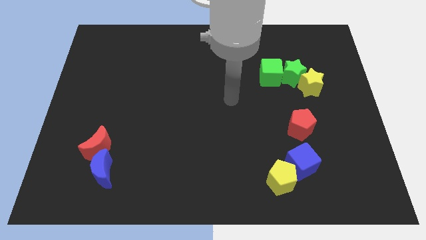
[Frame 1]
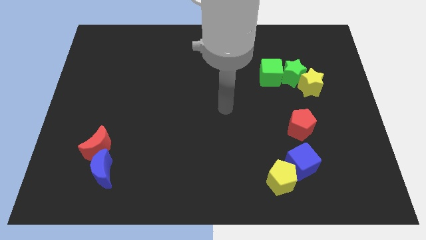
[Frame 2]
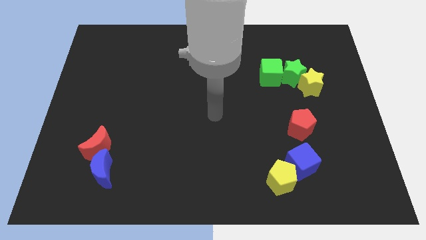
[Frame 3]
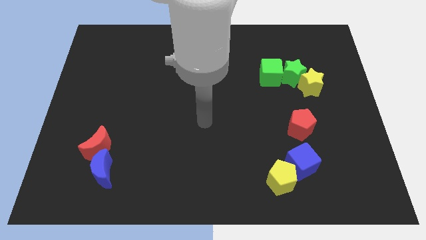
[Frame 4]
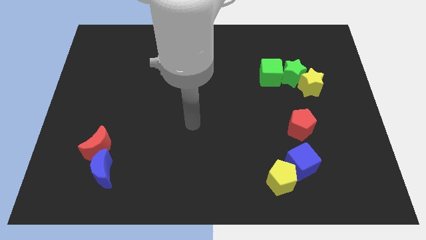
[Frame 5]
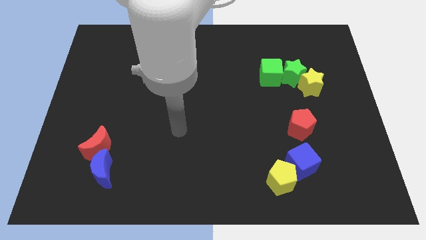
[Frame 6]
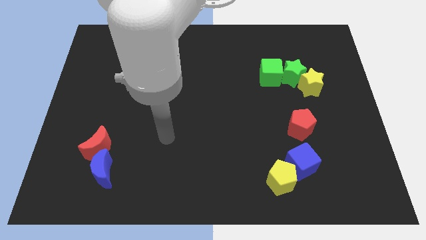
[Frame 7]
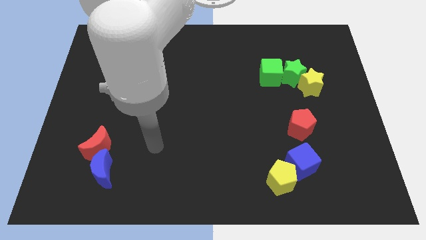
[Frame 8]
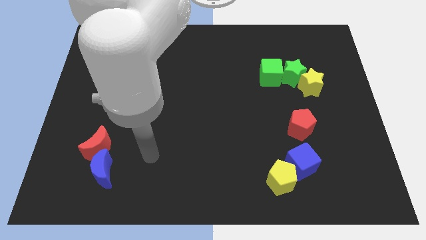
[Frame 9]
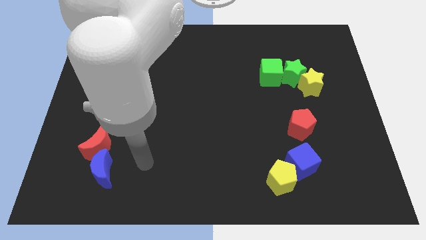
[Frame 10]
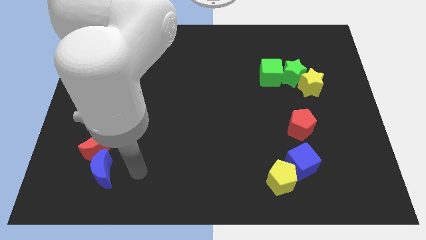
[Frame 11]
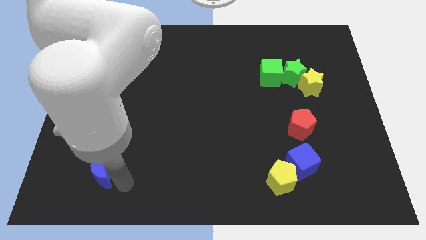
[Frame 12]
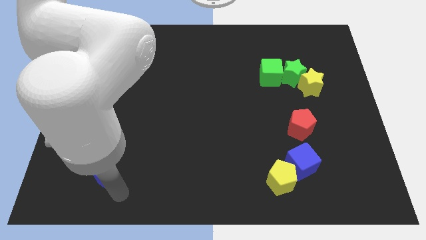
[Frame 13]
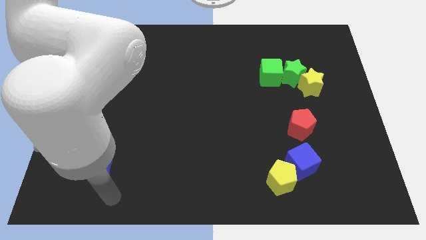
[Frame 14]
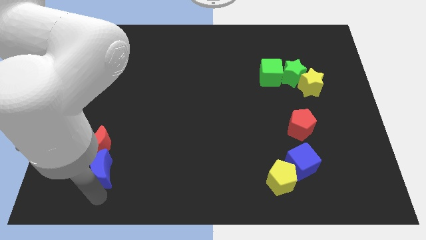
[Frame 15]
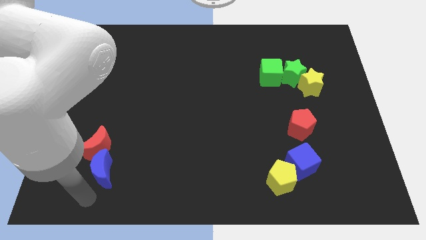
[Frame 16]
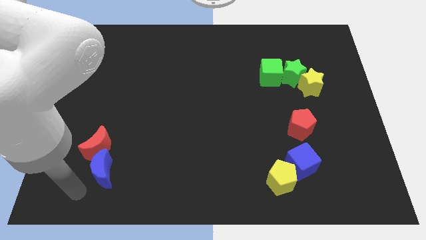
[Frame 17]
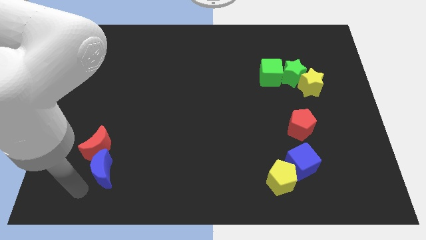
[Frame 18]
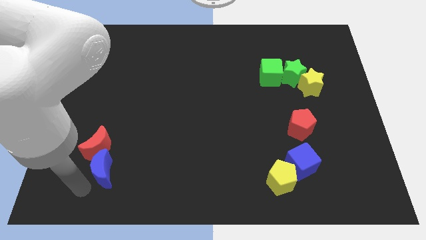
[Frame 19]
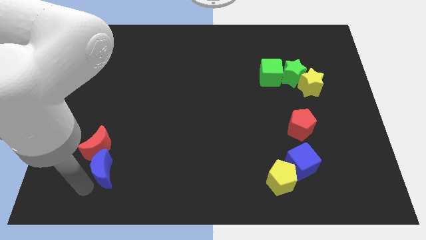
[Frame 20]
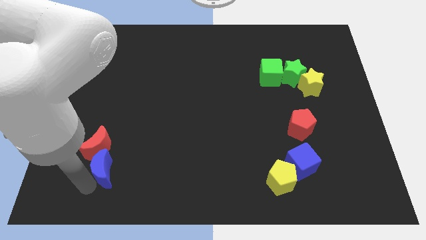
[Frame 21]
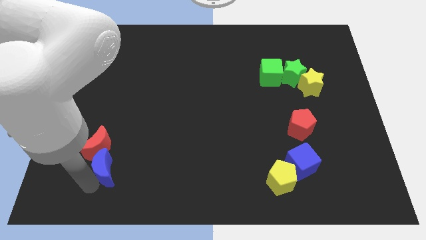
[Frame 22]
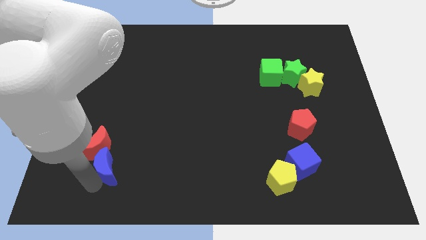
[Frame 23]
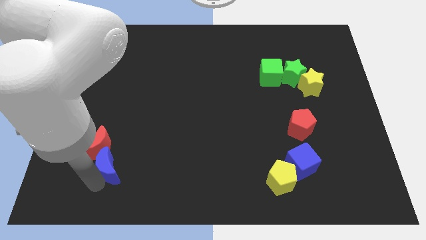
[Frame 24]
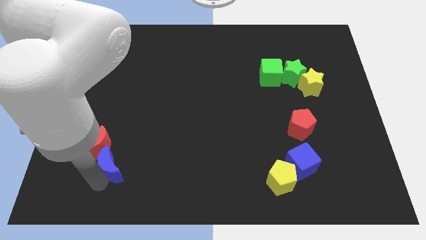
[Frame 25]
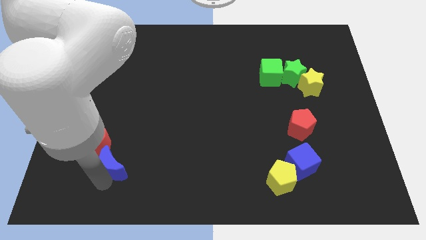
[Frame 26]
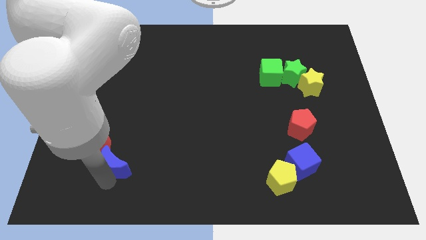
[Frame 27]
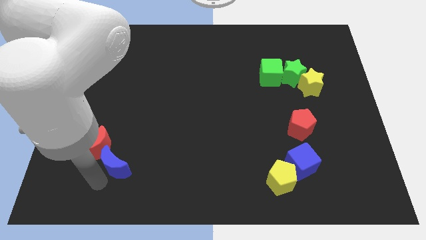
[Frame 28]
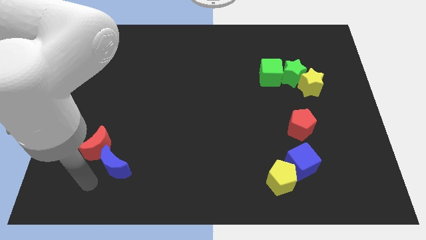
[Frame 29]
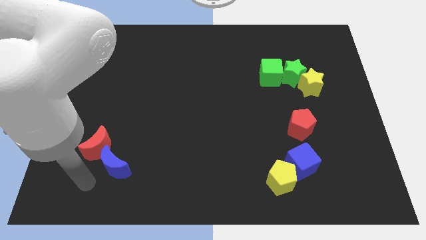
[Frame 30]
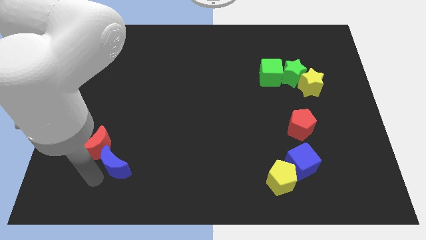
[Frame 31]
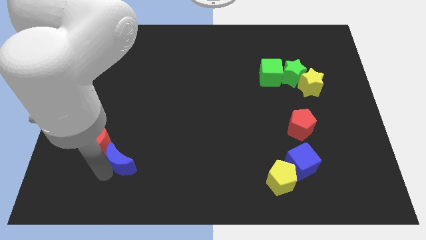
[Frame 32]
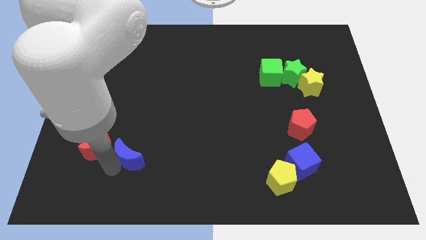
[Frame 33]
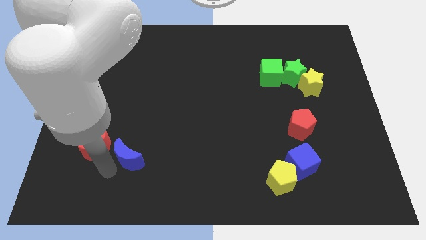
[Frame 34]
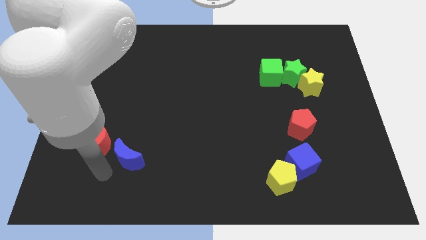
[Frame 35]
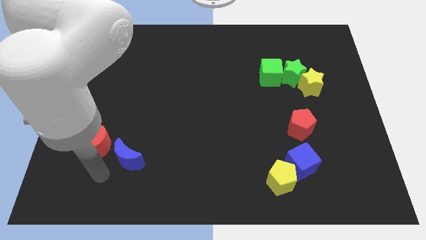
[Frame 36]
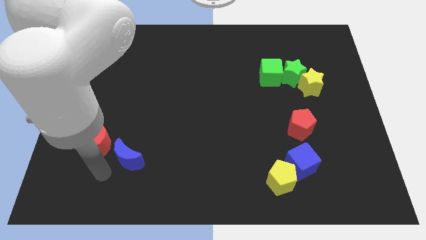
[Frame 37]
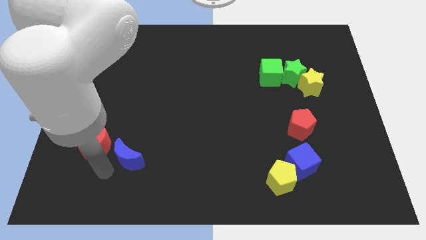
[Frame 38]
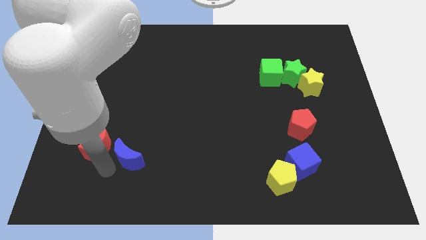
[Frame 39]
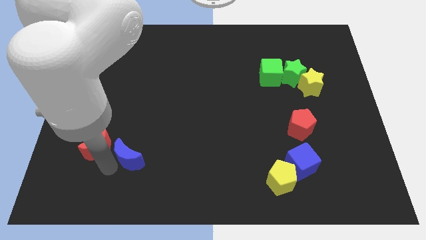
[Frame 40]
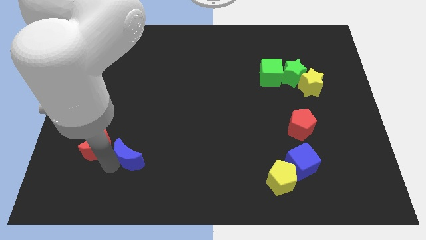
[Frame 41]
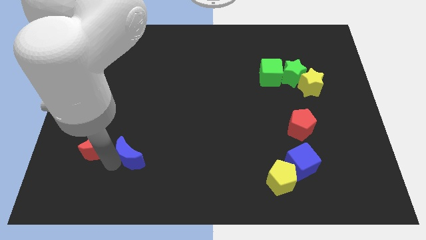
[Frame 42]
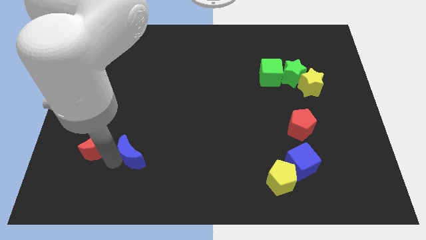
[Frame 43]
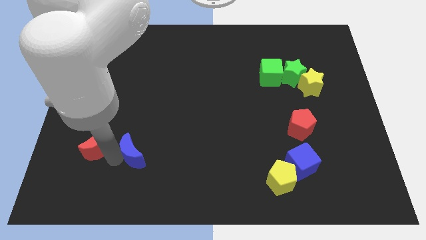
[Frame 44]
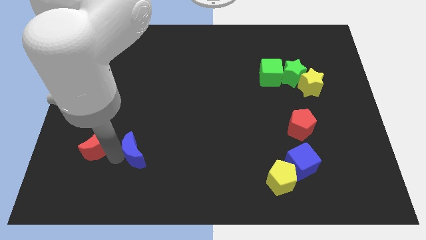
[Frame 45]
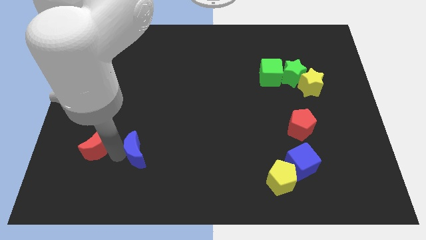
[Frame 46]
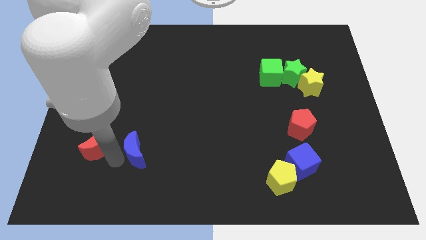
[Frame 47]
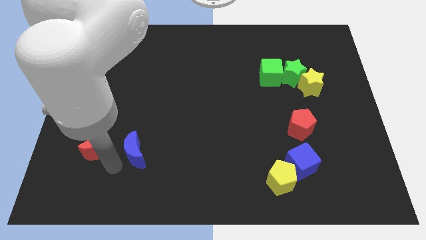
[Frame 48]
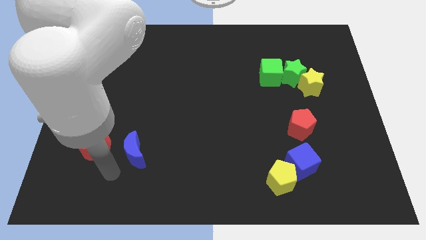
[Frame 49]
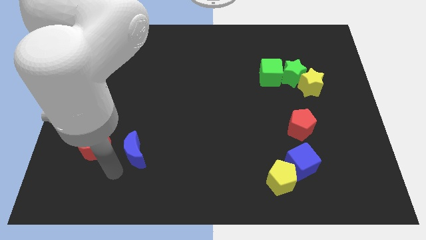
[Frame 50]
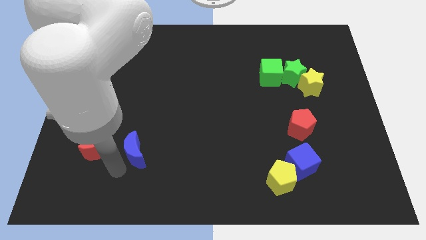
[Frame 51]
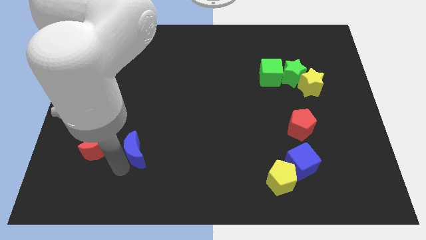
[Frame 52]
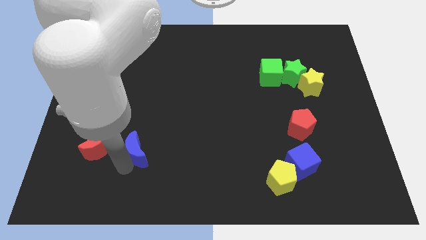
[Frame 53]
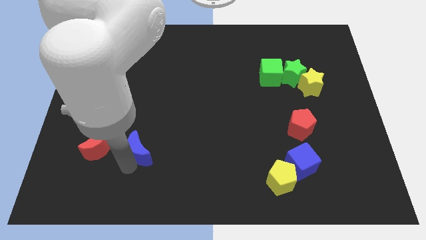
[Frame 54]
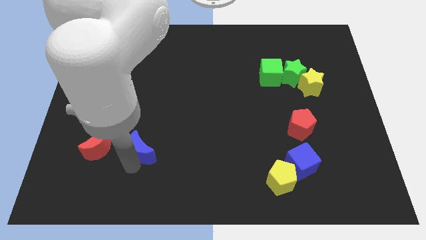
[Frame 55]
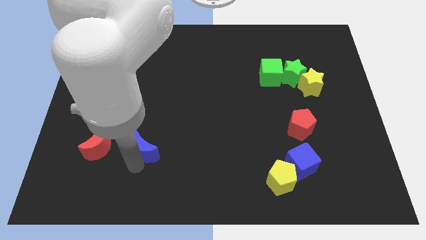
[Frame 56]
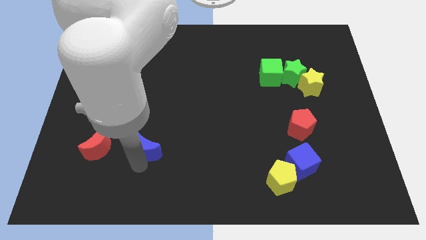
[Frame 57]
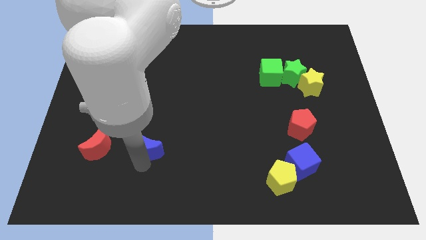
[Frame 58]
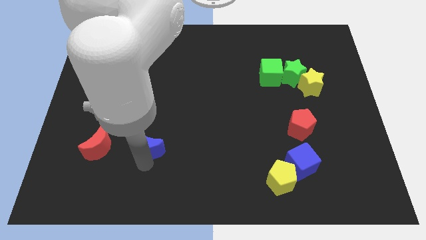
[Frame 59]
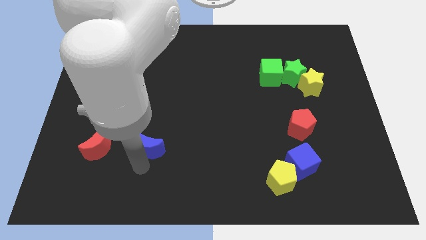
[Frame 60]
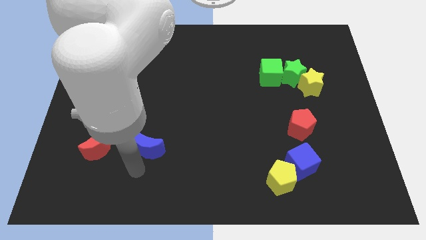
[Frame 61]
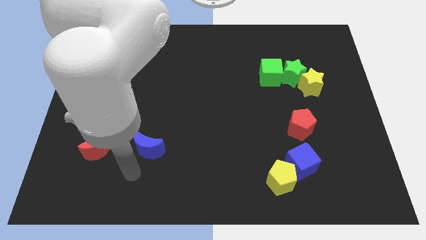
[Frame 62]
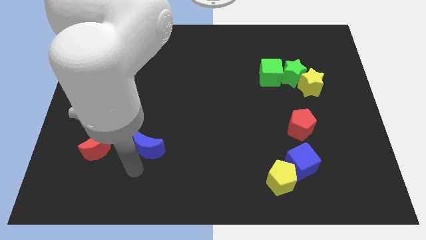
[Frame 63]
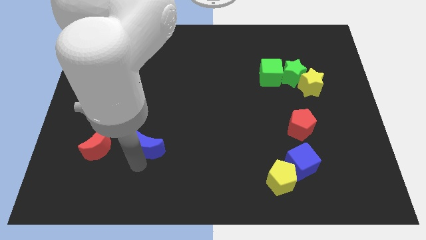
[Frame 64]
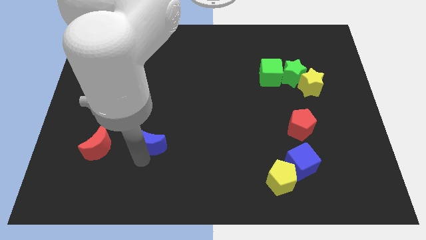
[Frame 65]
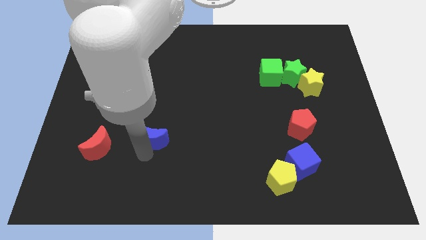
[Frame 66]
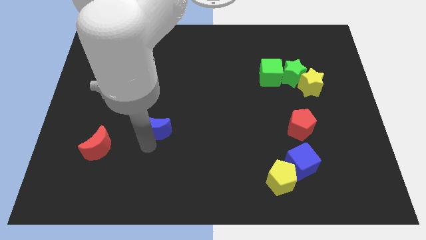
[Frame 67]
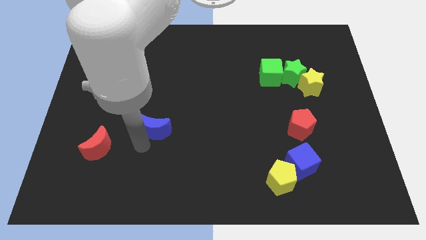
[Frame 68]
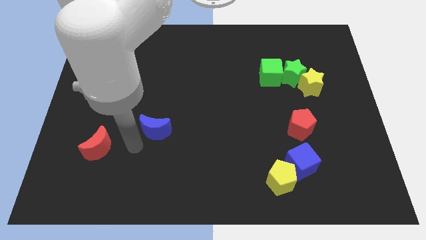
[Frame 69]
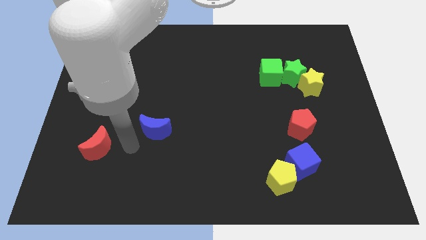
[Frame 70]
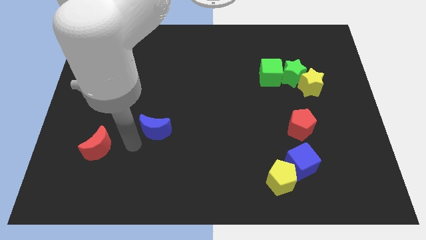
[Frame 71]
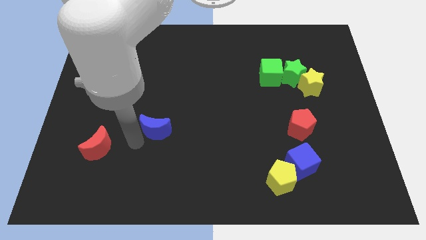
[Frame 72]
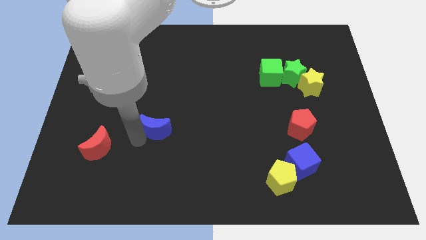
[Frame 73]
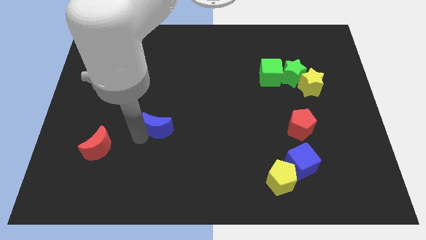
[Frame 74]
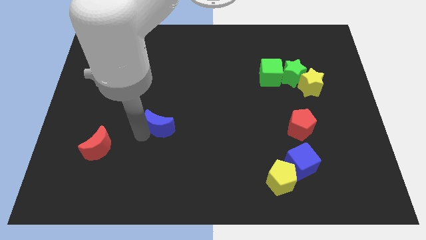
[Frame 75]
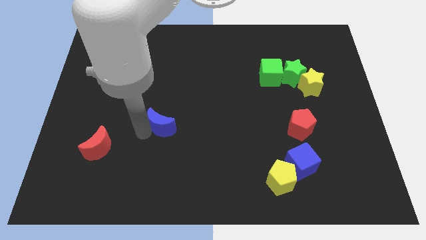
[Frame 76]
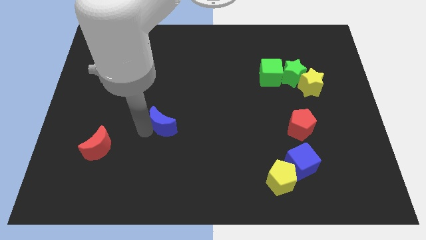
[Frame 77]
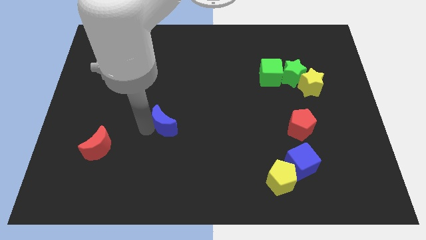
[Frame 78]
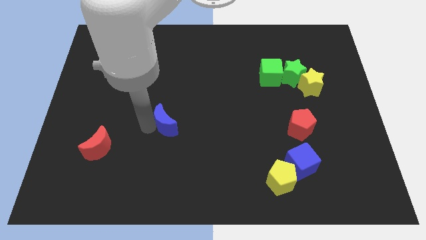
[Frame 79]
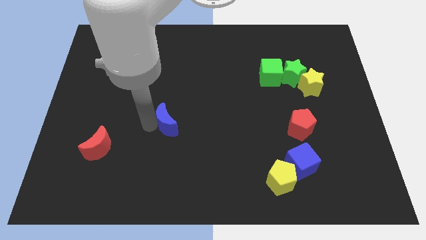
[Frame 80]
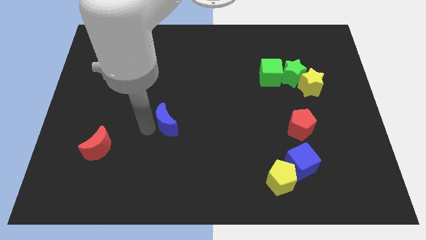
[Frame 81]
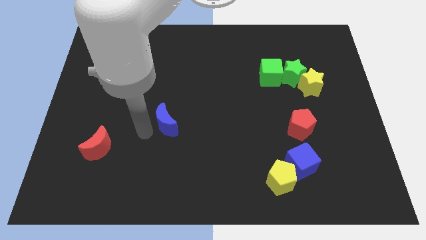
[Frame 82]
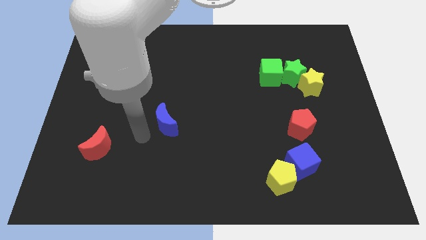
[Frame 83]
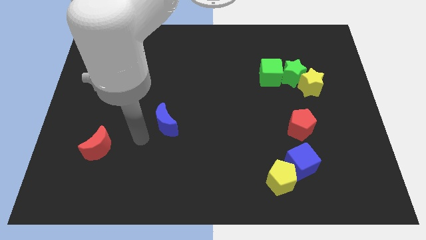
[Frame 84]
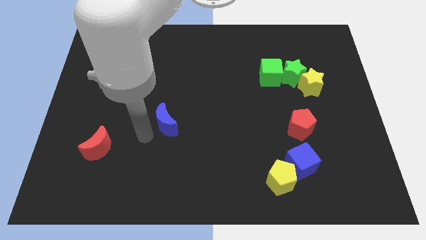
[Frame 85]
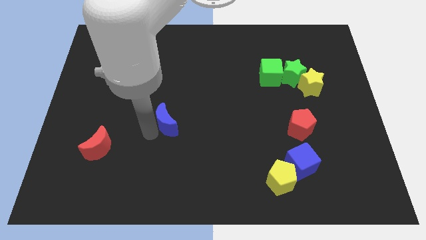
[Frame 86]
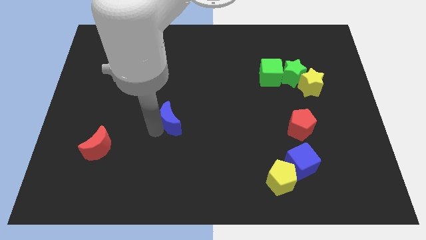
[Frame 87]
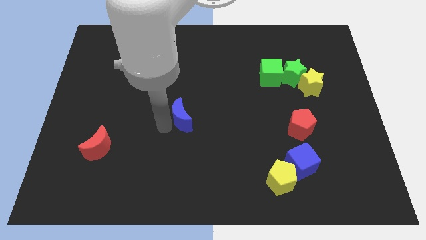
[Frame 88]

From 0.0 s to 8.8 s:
slide the blue moon up and then to the right
